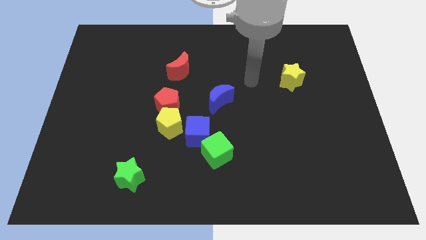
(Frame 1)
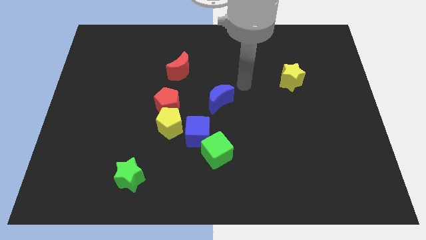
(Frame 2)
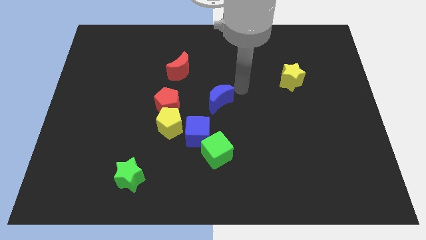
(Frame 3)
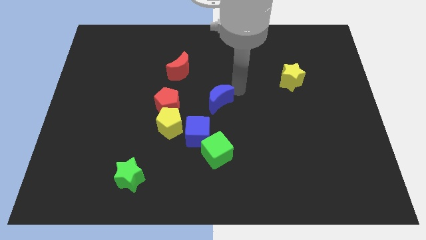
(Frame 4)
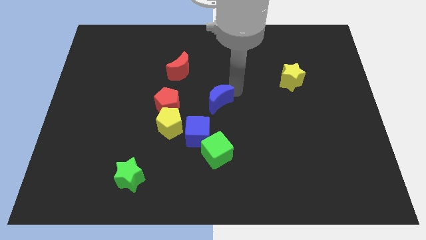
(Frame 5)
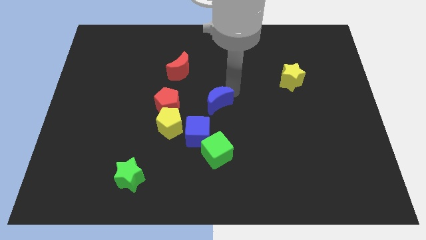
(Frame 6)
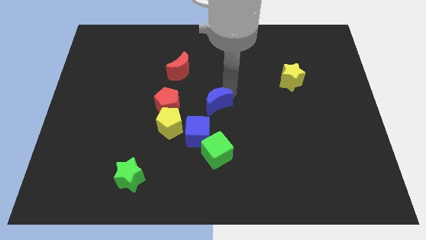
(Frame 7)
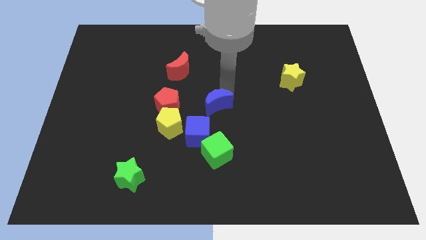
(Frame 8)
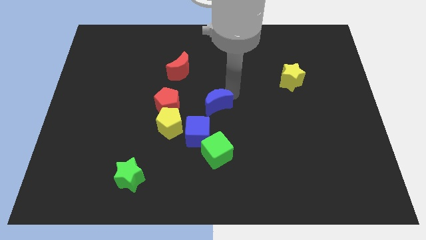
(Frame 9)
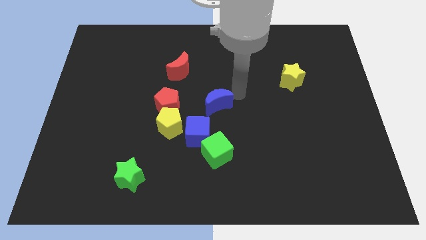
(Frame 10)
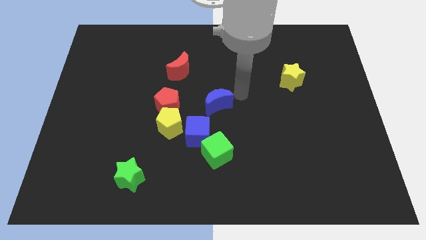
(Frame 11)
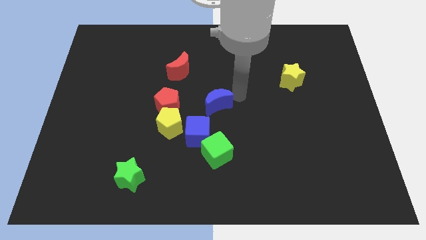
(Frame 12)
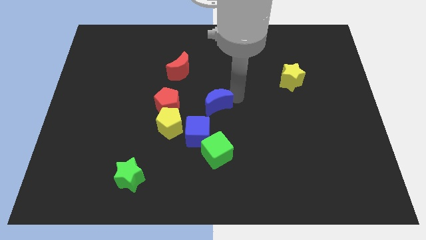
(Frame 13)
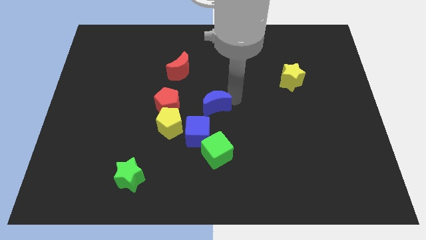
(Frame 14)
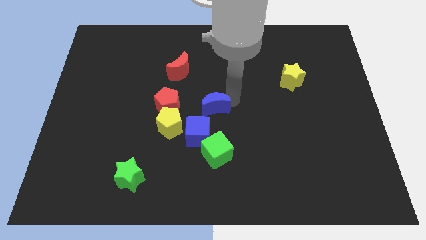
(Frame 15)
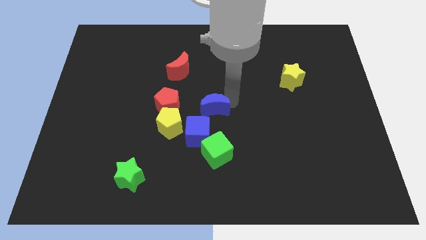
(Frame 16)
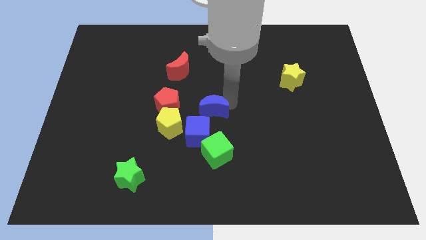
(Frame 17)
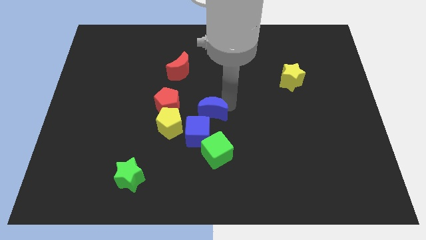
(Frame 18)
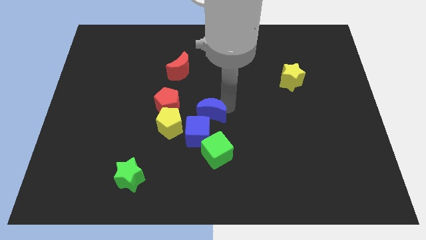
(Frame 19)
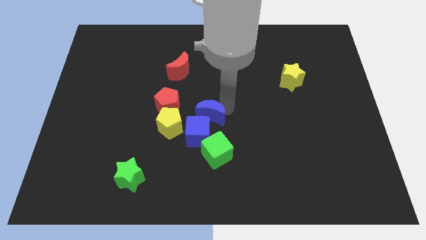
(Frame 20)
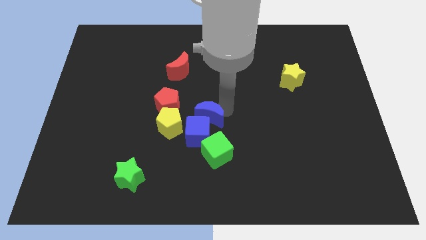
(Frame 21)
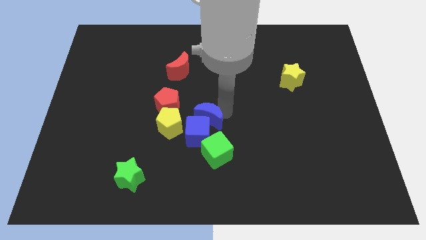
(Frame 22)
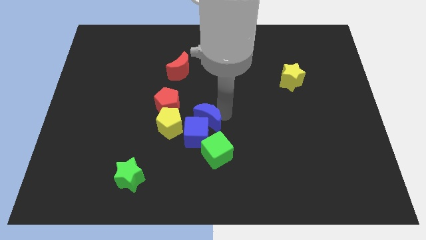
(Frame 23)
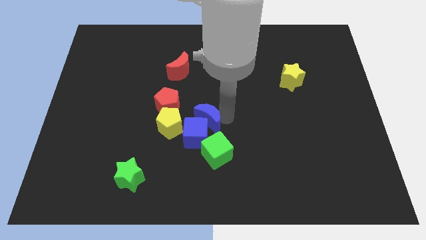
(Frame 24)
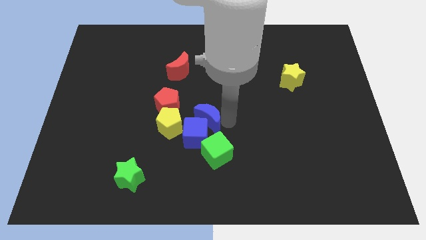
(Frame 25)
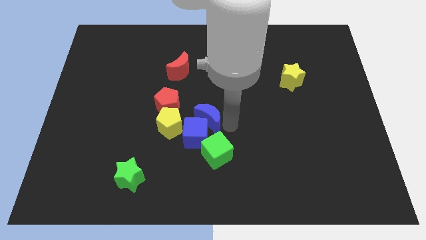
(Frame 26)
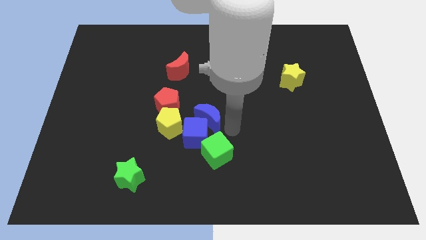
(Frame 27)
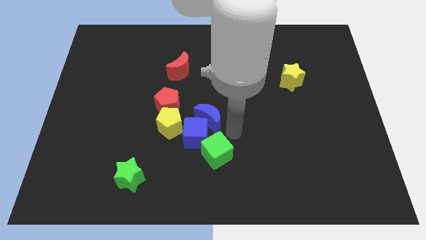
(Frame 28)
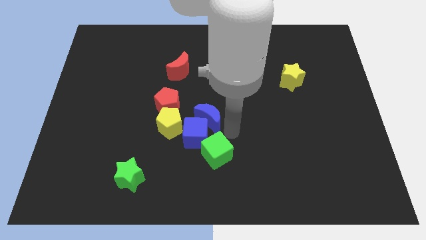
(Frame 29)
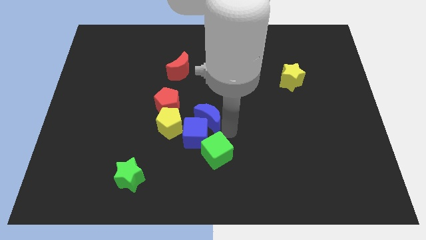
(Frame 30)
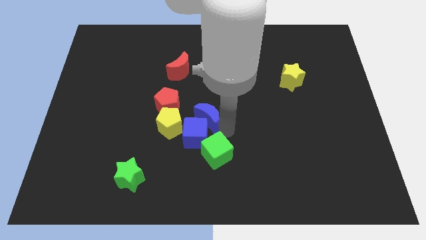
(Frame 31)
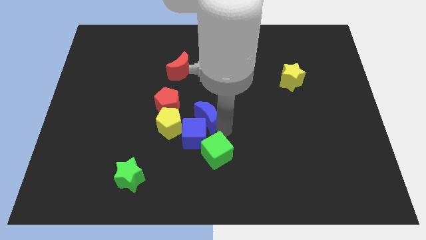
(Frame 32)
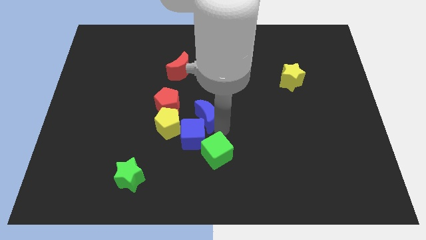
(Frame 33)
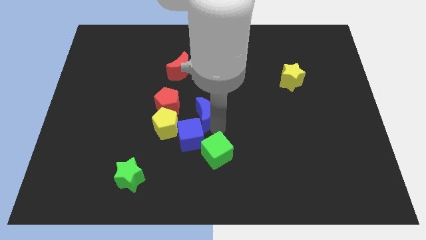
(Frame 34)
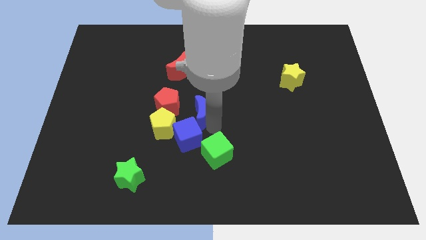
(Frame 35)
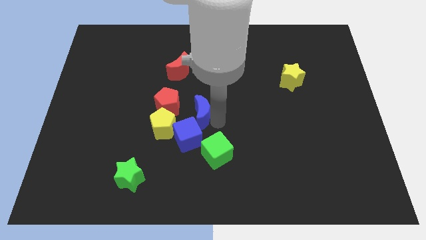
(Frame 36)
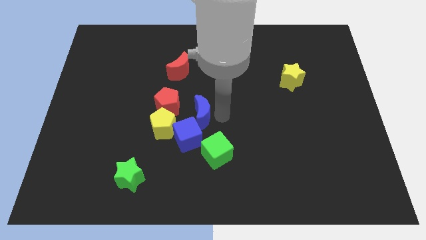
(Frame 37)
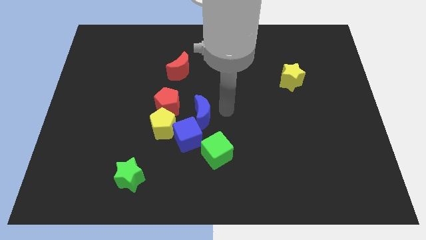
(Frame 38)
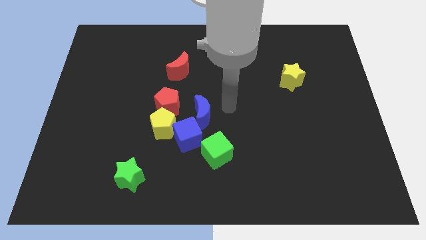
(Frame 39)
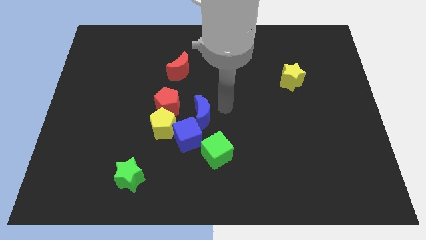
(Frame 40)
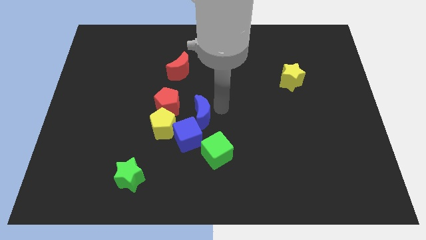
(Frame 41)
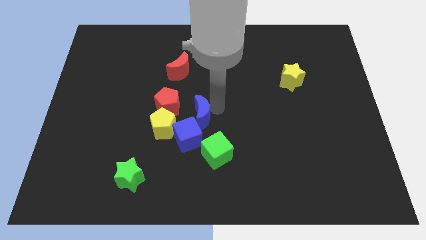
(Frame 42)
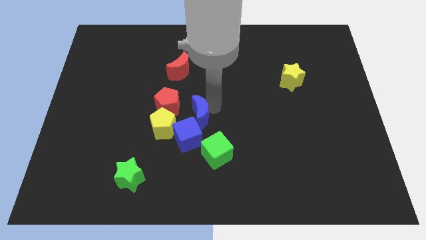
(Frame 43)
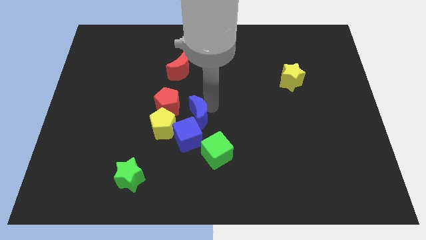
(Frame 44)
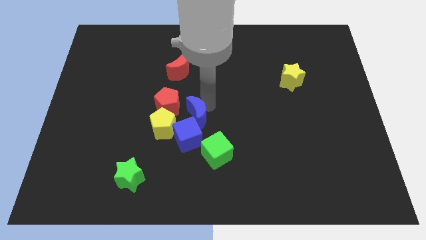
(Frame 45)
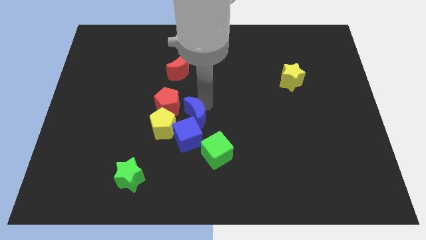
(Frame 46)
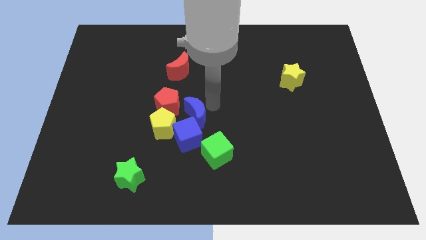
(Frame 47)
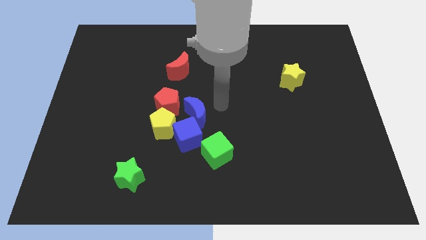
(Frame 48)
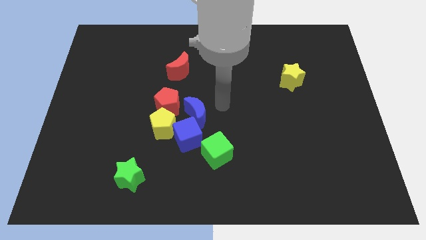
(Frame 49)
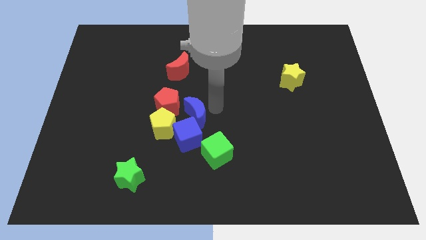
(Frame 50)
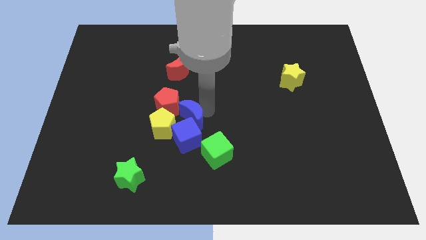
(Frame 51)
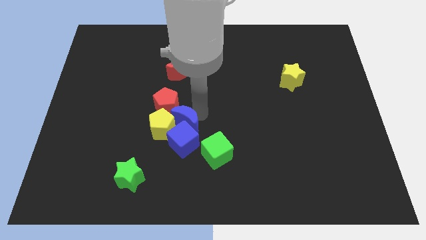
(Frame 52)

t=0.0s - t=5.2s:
move the blue moon close to the yellow pentagon

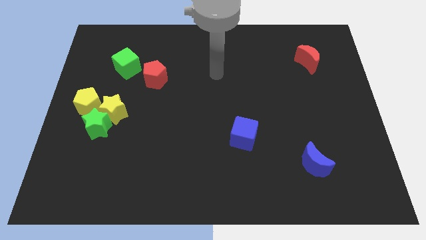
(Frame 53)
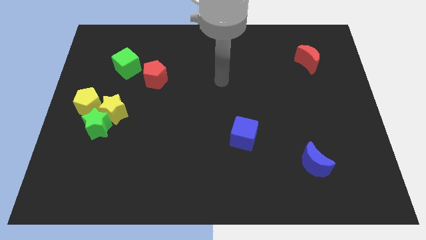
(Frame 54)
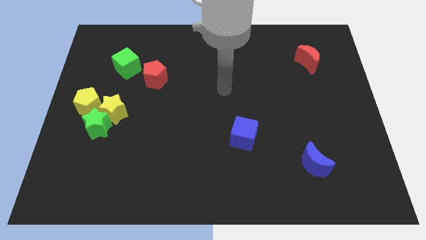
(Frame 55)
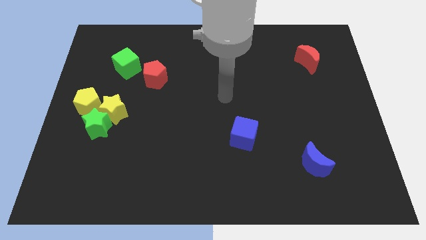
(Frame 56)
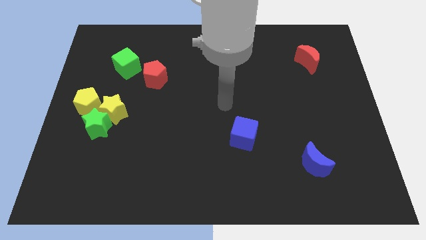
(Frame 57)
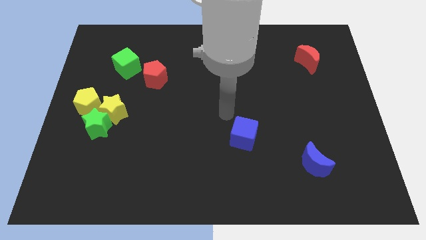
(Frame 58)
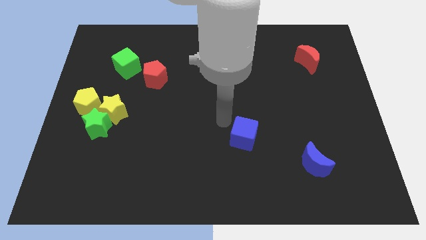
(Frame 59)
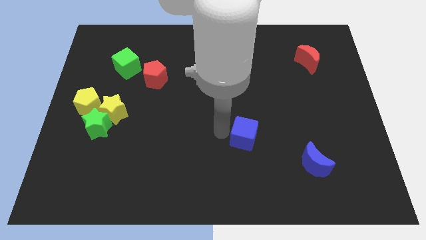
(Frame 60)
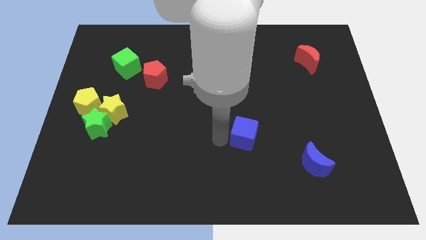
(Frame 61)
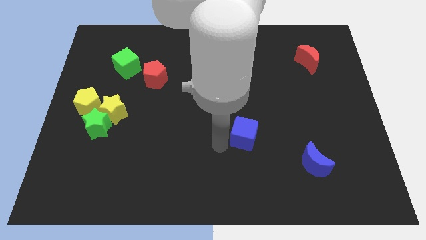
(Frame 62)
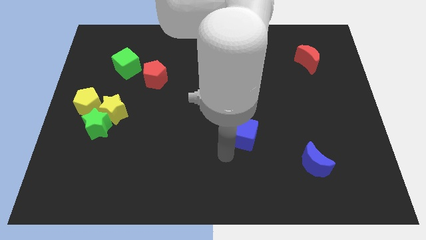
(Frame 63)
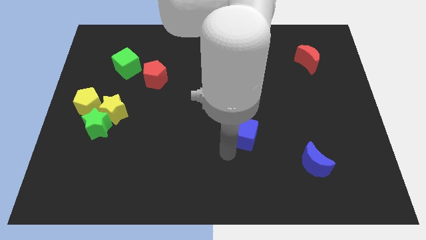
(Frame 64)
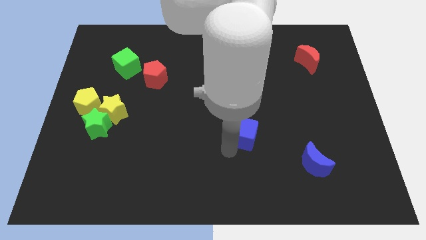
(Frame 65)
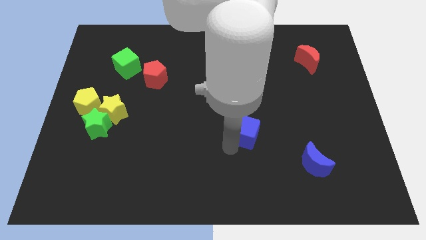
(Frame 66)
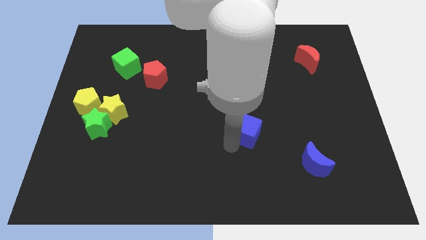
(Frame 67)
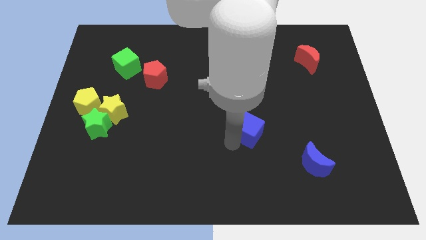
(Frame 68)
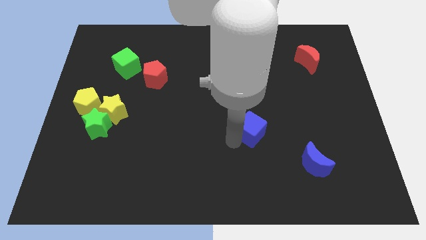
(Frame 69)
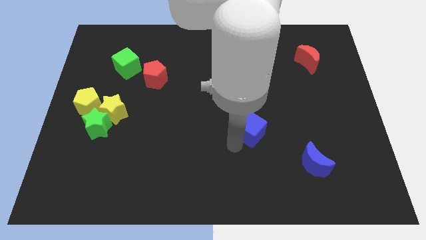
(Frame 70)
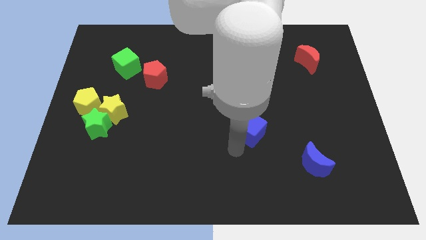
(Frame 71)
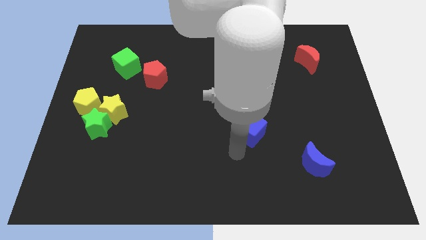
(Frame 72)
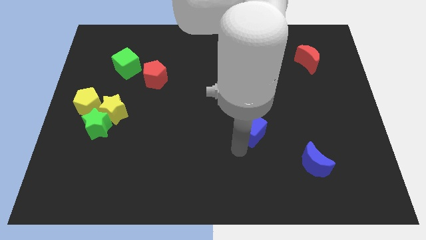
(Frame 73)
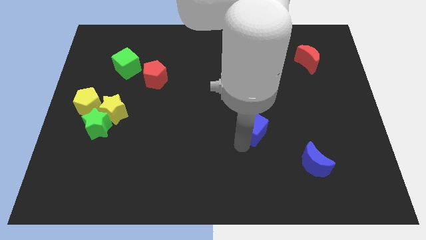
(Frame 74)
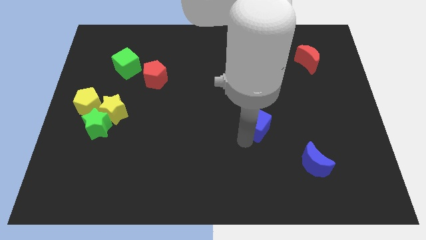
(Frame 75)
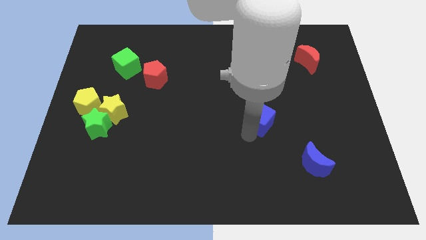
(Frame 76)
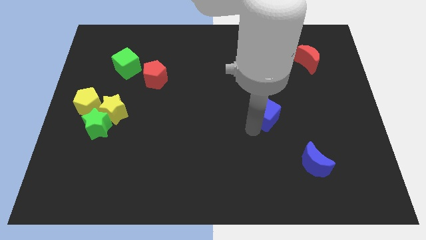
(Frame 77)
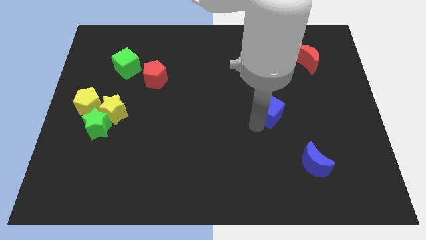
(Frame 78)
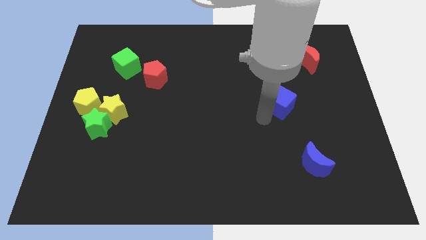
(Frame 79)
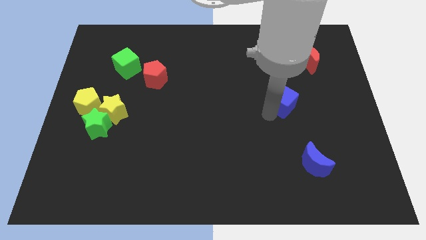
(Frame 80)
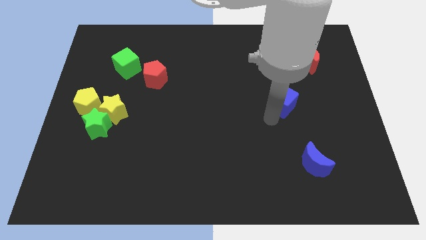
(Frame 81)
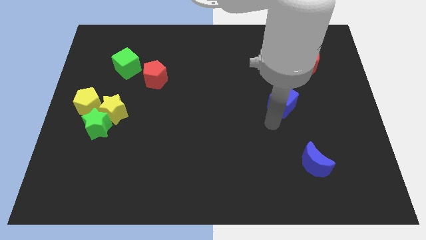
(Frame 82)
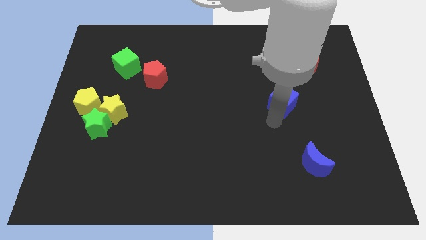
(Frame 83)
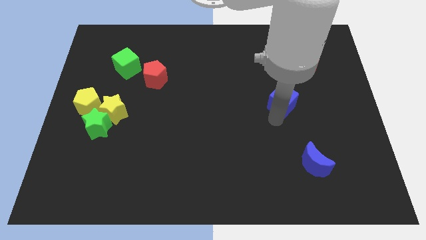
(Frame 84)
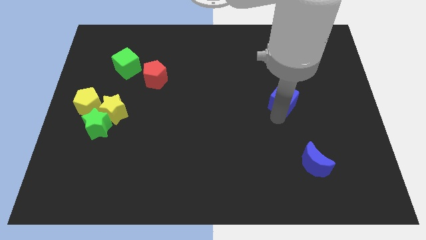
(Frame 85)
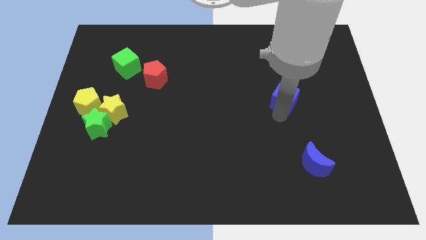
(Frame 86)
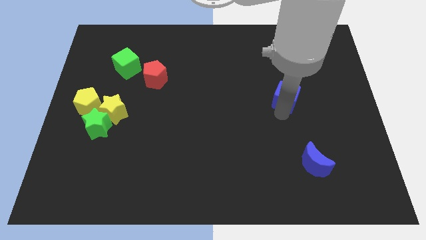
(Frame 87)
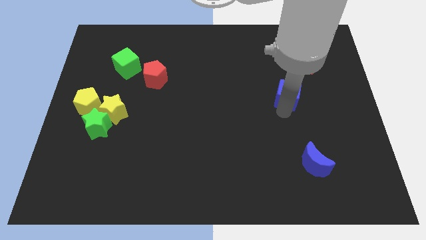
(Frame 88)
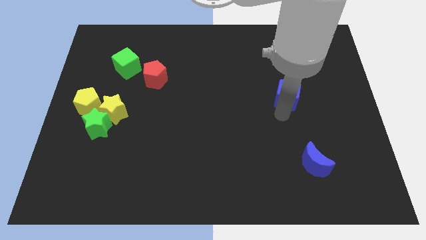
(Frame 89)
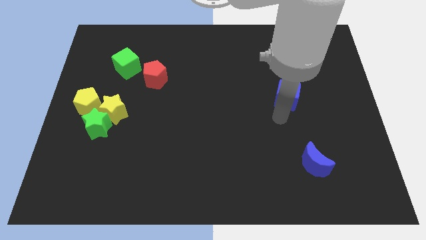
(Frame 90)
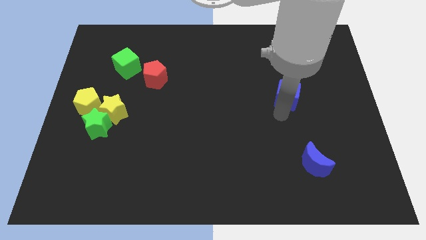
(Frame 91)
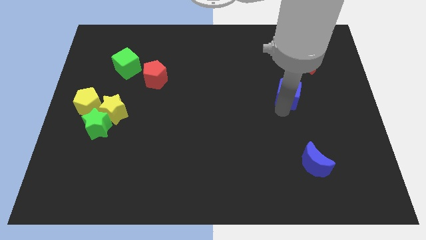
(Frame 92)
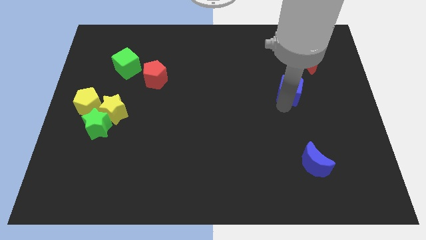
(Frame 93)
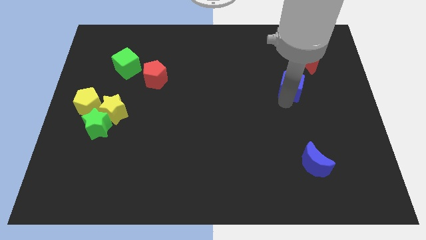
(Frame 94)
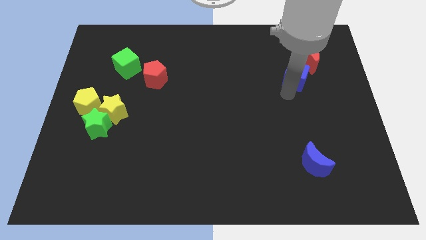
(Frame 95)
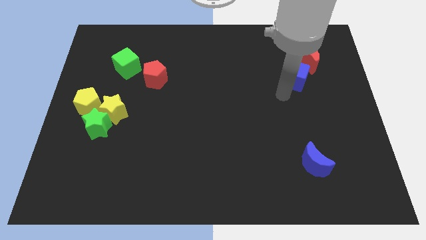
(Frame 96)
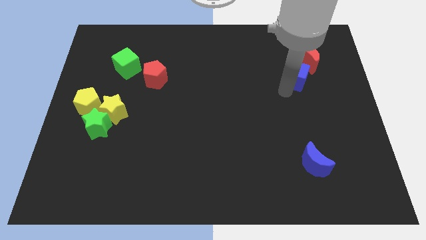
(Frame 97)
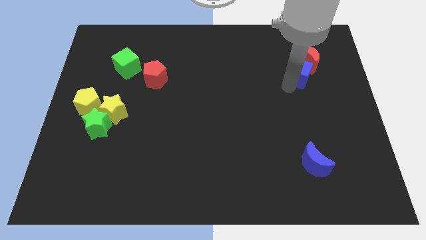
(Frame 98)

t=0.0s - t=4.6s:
put the blue cube next to the red moon
